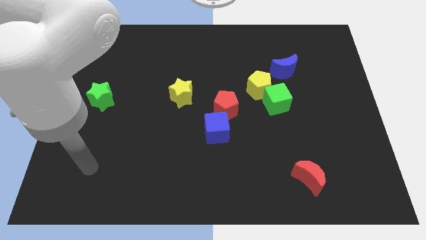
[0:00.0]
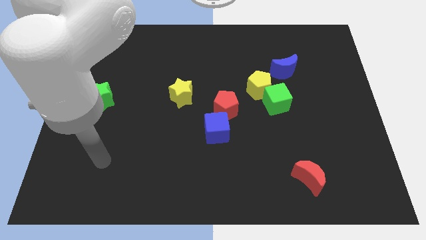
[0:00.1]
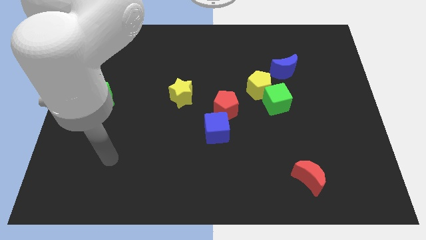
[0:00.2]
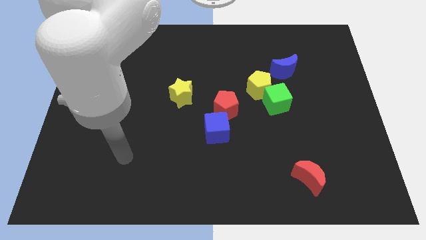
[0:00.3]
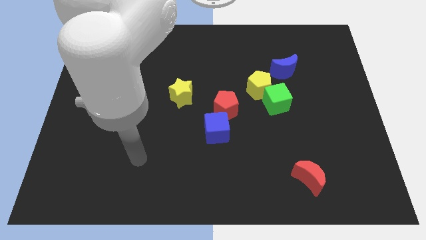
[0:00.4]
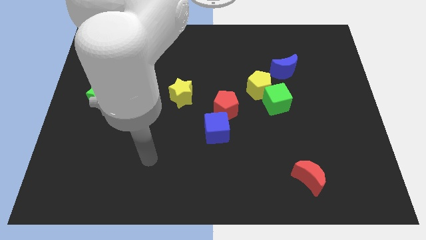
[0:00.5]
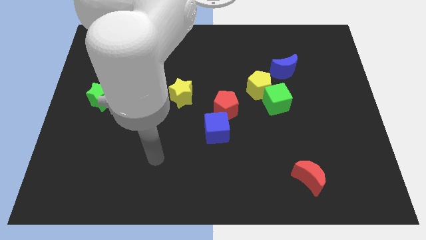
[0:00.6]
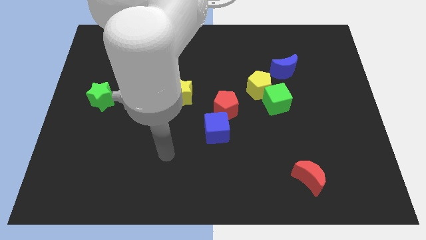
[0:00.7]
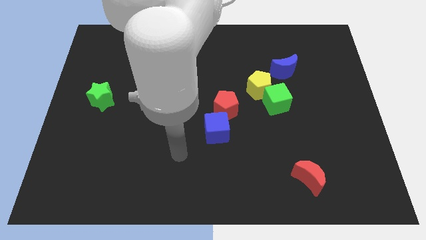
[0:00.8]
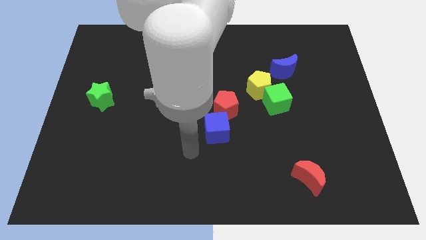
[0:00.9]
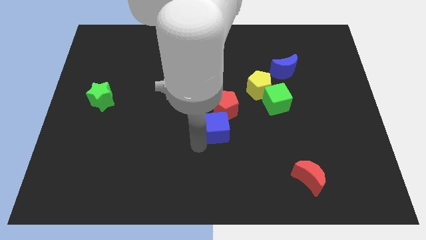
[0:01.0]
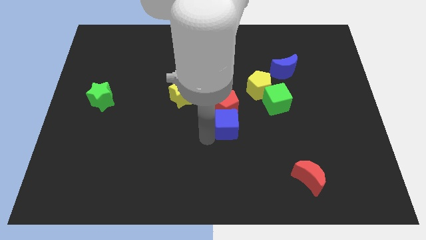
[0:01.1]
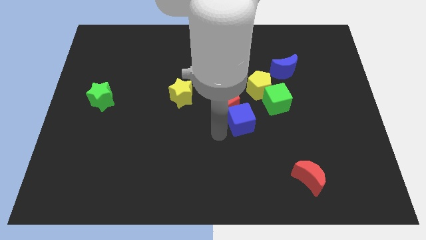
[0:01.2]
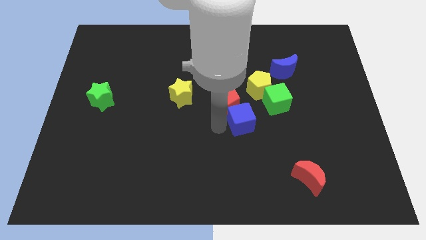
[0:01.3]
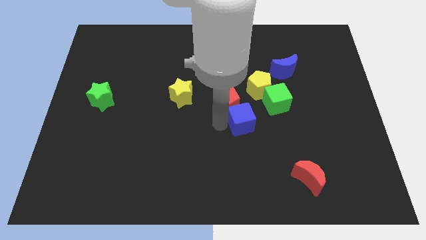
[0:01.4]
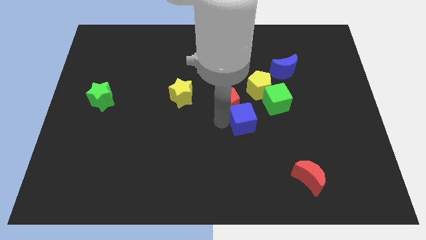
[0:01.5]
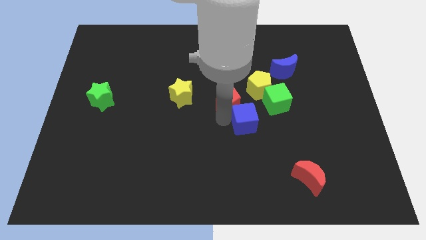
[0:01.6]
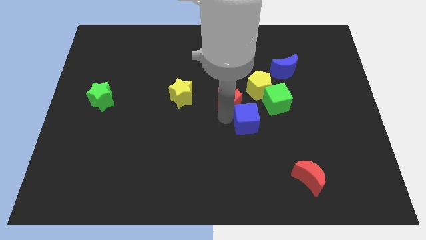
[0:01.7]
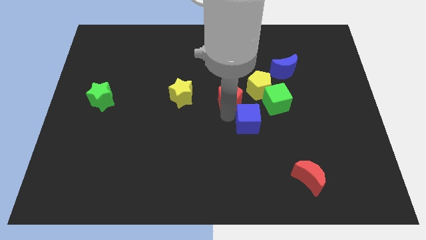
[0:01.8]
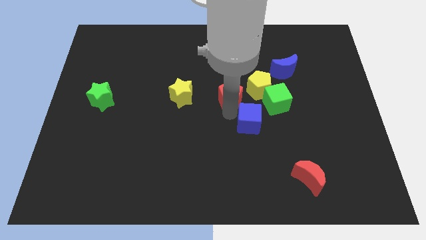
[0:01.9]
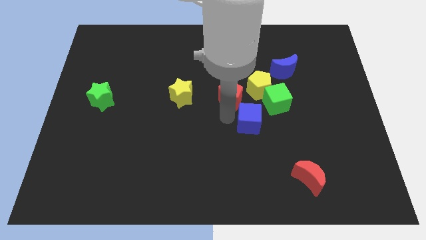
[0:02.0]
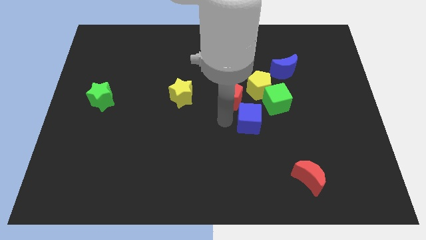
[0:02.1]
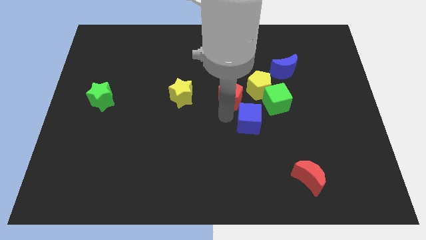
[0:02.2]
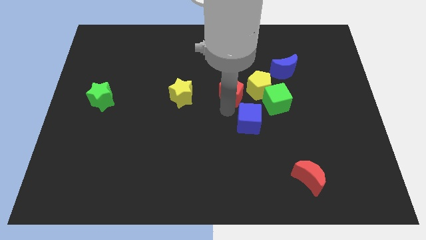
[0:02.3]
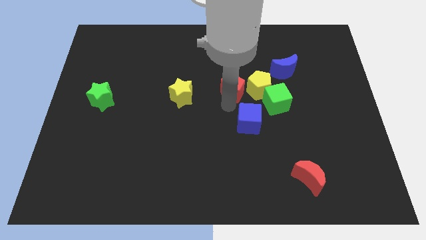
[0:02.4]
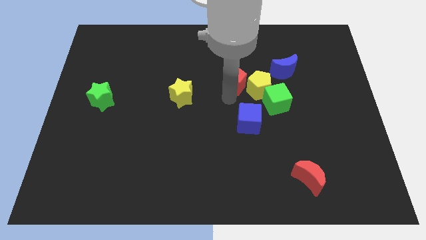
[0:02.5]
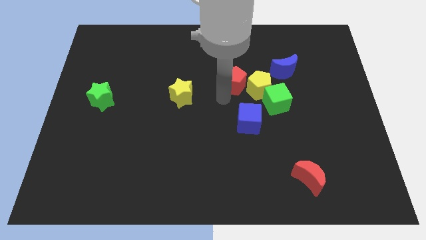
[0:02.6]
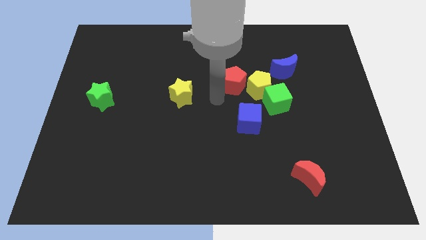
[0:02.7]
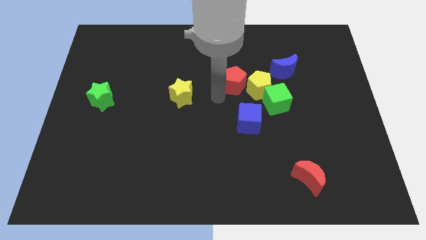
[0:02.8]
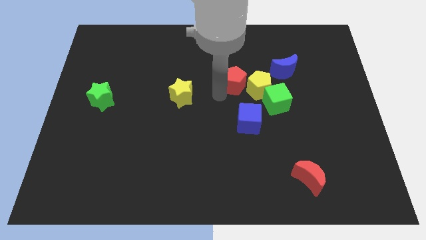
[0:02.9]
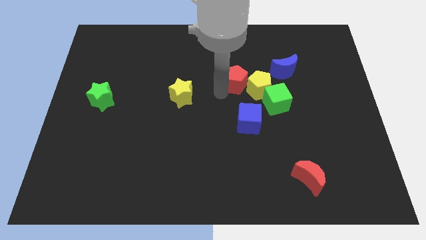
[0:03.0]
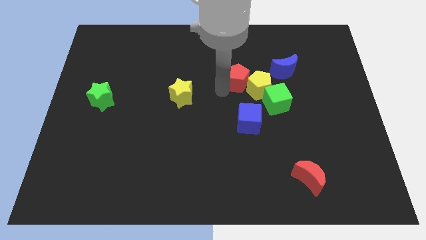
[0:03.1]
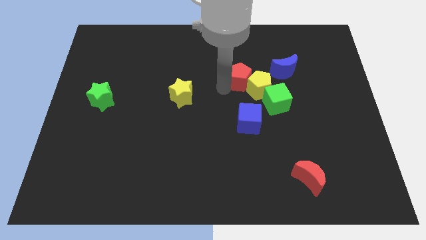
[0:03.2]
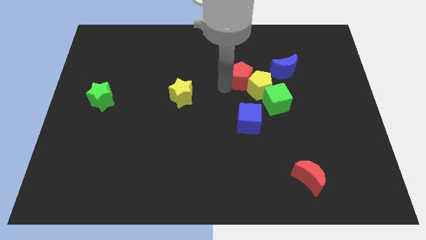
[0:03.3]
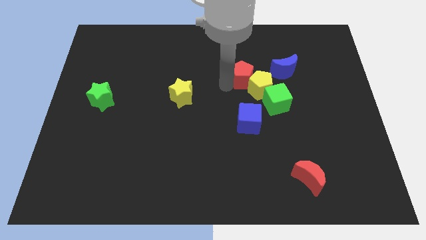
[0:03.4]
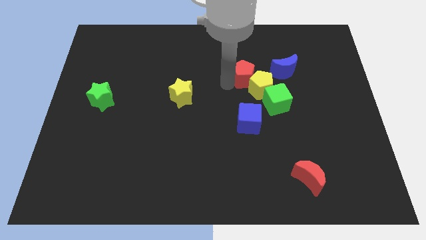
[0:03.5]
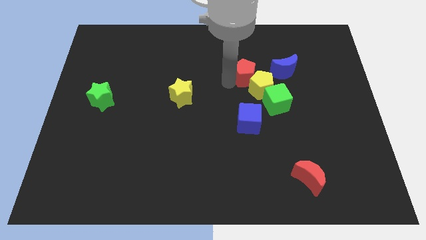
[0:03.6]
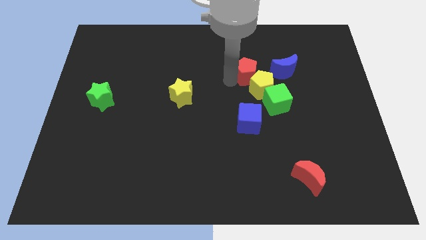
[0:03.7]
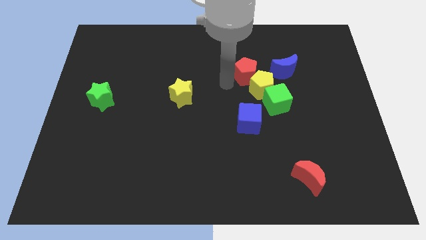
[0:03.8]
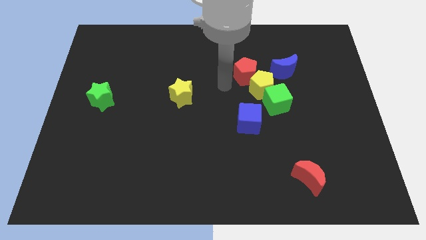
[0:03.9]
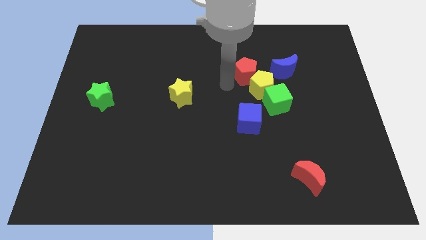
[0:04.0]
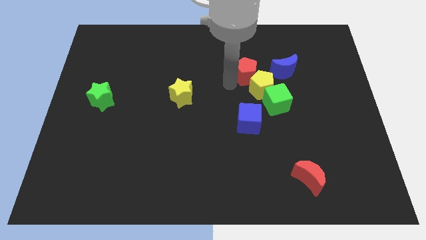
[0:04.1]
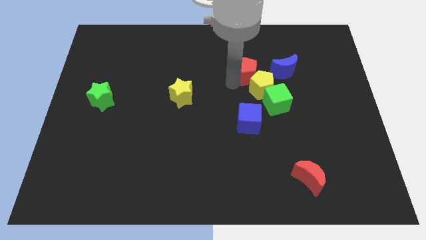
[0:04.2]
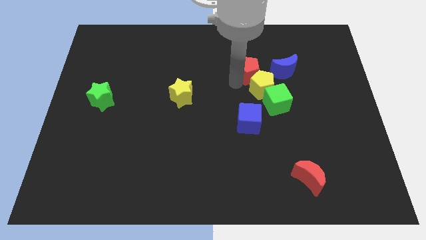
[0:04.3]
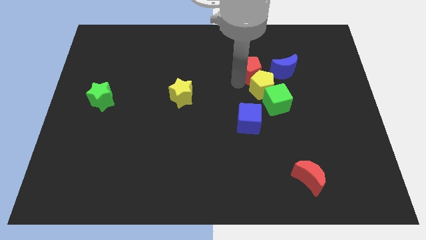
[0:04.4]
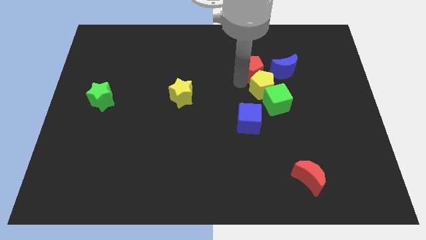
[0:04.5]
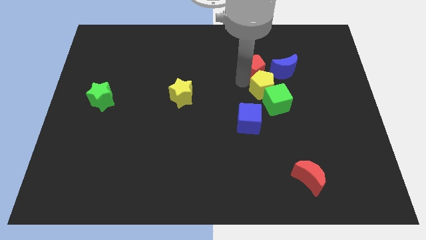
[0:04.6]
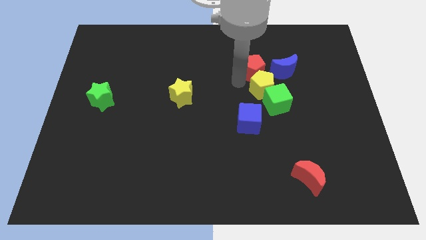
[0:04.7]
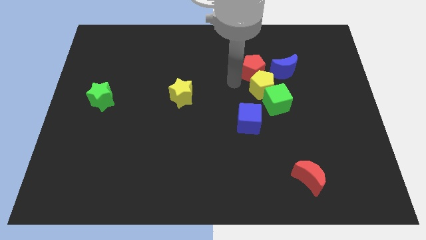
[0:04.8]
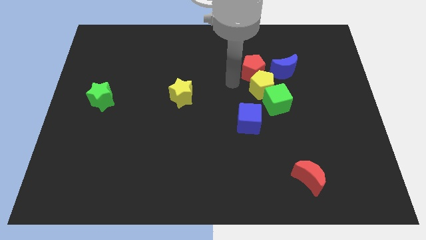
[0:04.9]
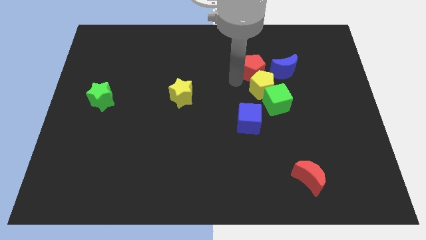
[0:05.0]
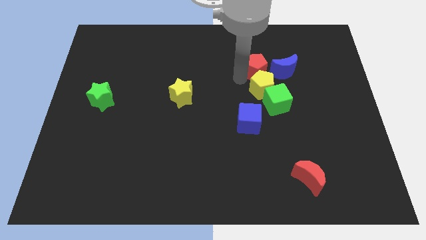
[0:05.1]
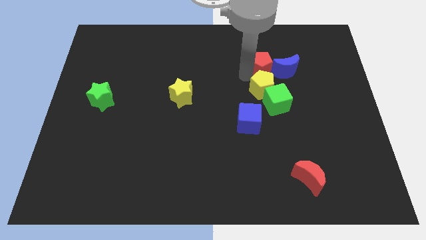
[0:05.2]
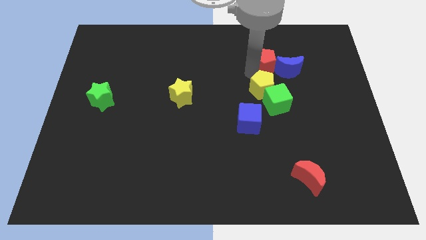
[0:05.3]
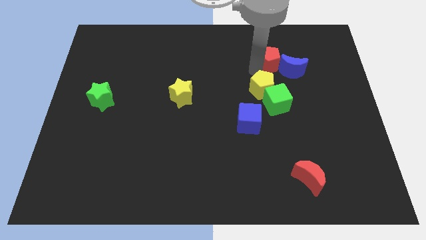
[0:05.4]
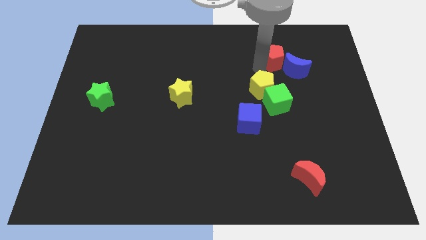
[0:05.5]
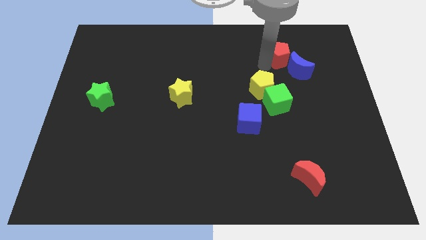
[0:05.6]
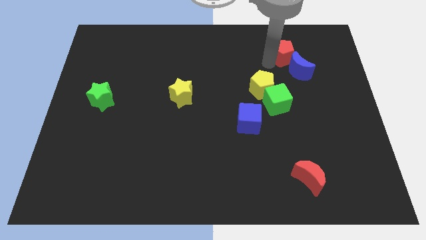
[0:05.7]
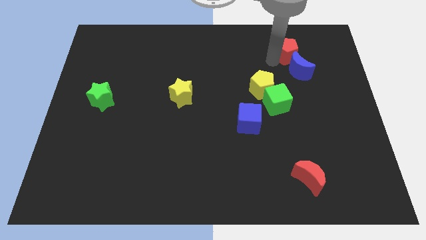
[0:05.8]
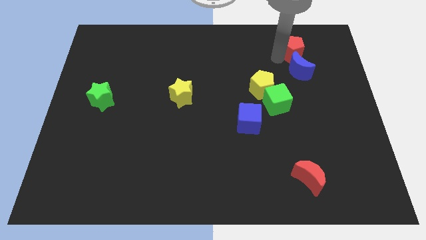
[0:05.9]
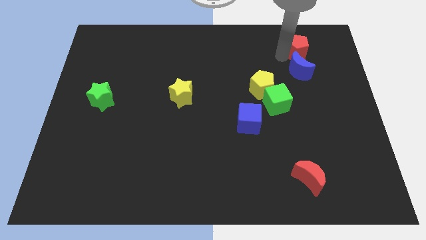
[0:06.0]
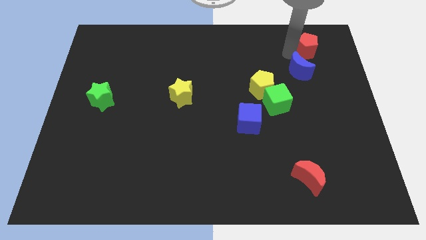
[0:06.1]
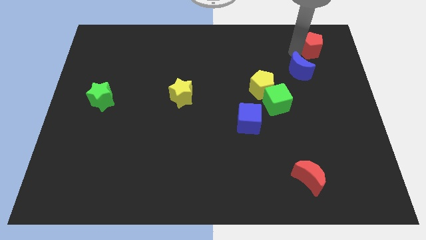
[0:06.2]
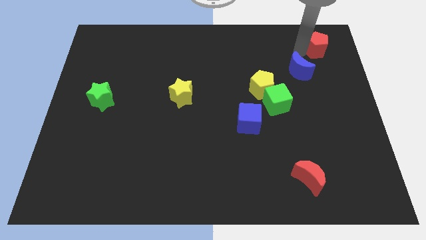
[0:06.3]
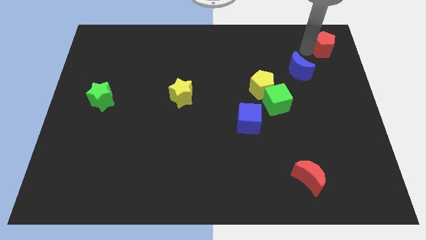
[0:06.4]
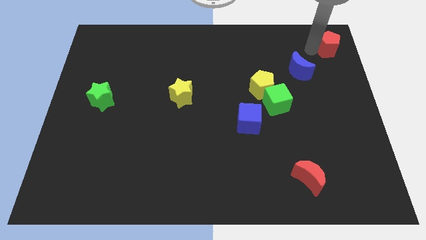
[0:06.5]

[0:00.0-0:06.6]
push the red pentagon to the top right of the board

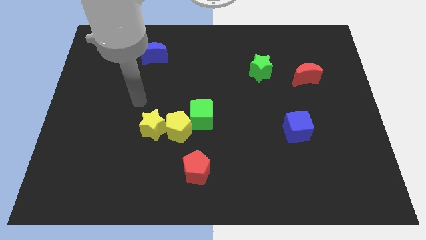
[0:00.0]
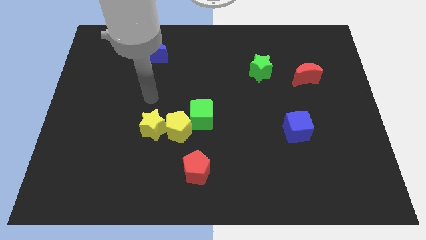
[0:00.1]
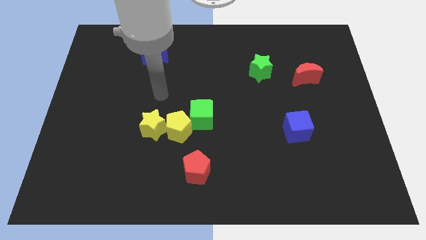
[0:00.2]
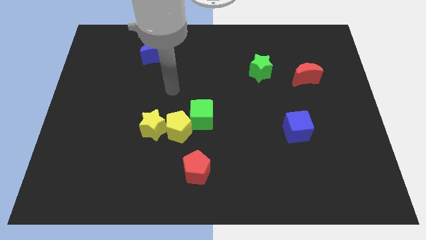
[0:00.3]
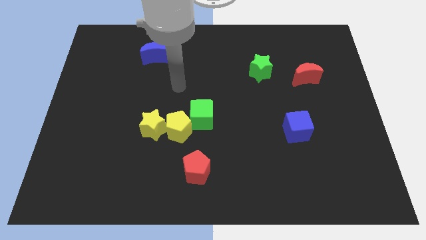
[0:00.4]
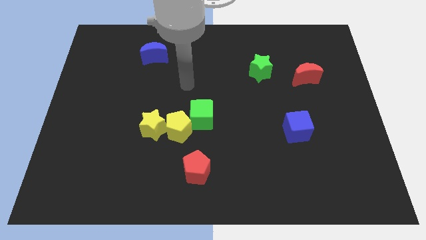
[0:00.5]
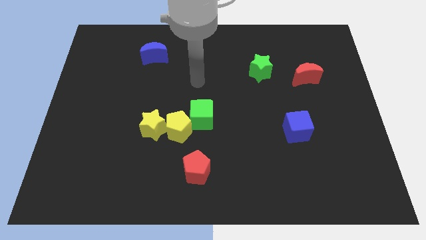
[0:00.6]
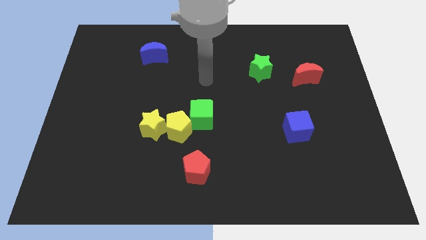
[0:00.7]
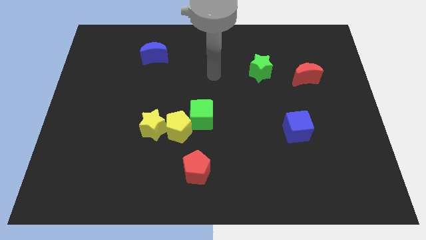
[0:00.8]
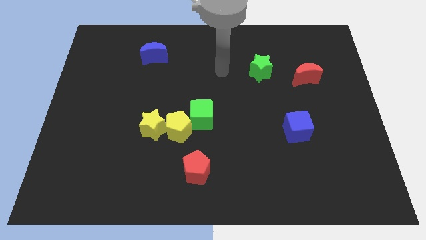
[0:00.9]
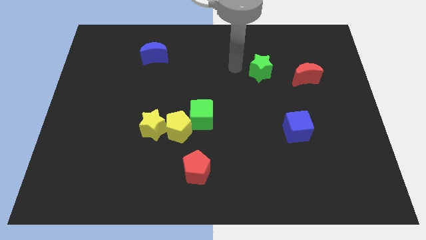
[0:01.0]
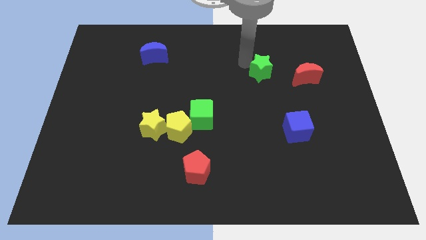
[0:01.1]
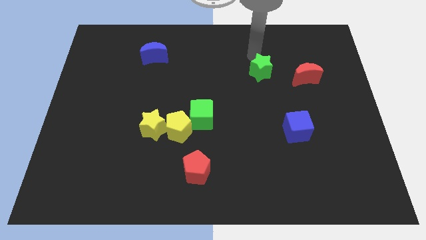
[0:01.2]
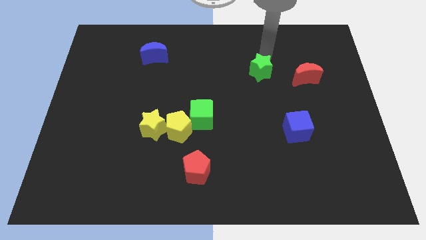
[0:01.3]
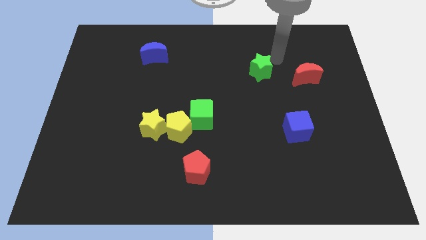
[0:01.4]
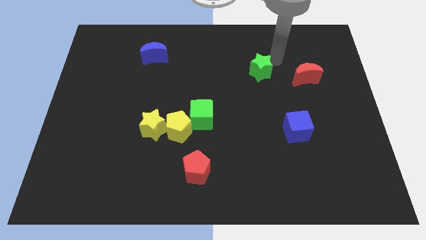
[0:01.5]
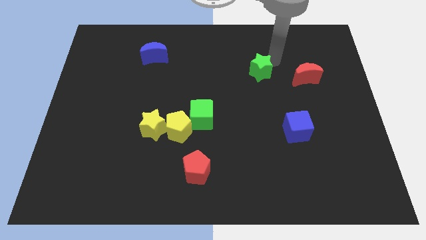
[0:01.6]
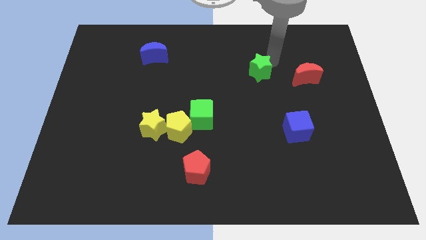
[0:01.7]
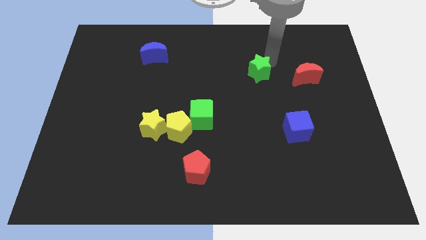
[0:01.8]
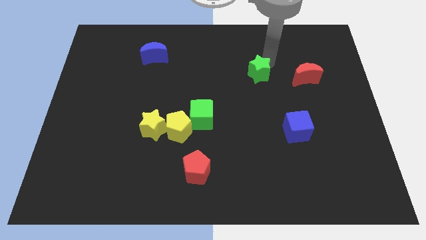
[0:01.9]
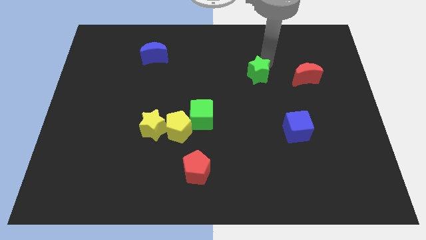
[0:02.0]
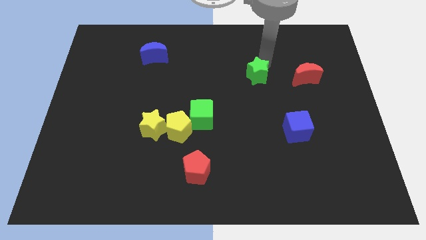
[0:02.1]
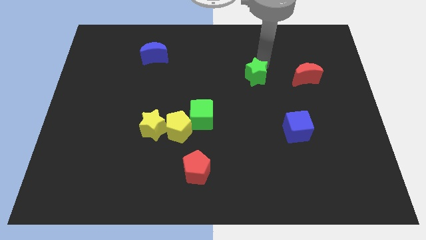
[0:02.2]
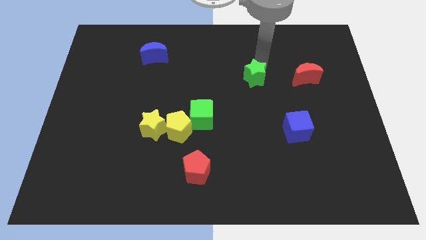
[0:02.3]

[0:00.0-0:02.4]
move the green star to the middle of the board
